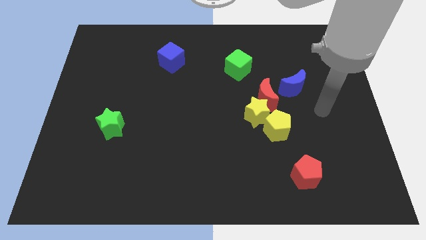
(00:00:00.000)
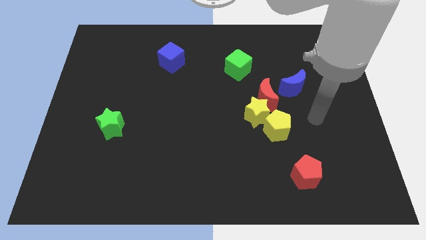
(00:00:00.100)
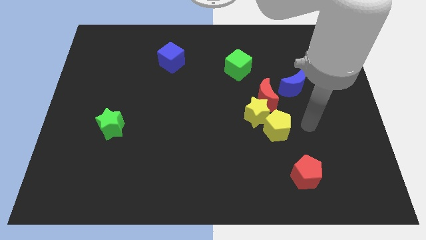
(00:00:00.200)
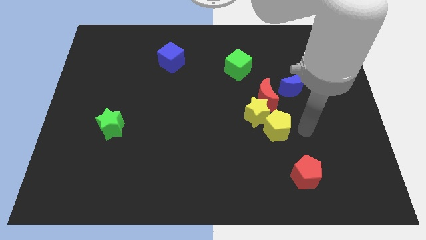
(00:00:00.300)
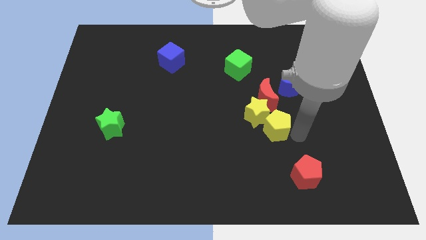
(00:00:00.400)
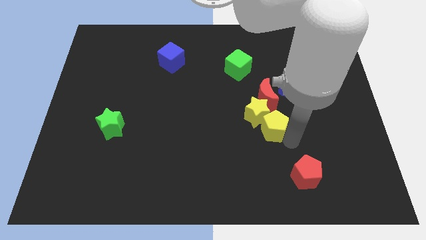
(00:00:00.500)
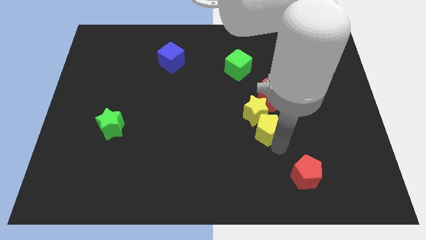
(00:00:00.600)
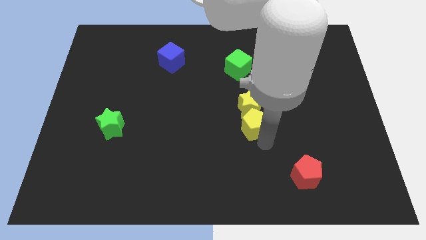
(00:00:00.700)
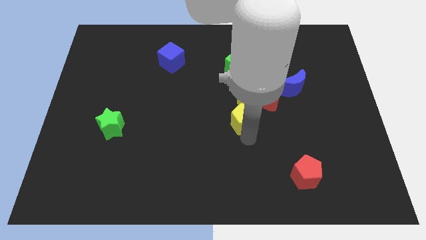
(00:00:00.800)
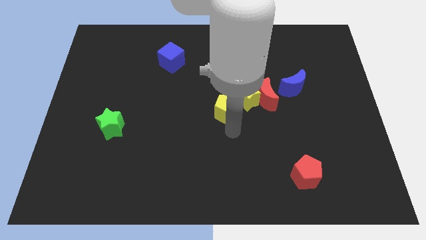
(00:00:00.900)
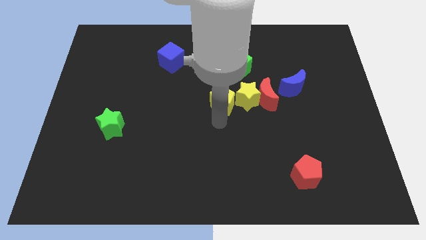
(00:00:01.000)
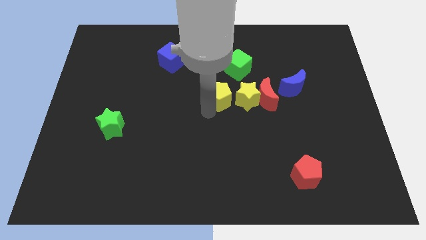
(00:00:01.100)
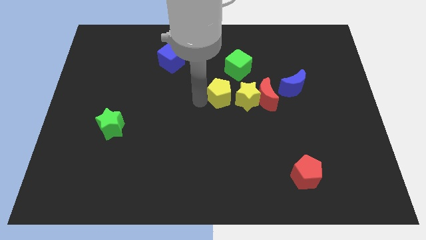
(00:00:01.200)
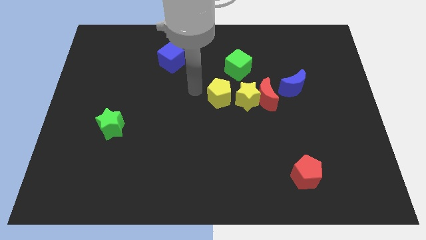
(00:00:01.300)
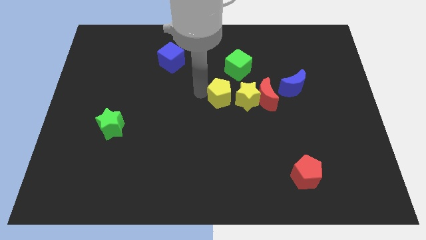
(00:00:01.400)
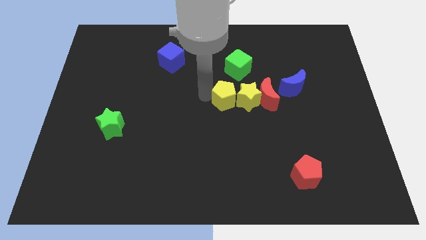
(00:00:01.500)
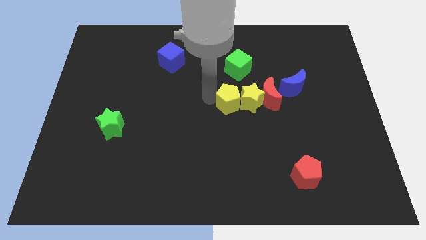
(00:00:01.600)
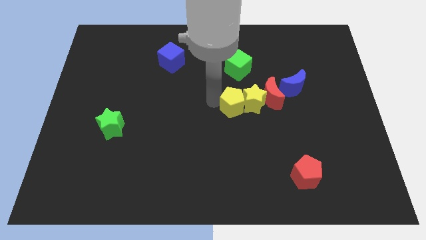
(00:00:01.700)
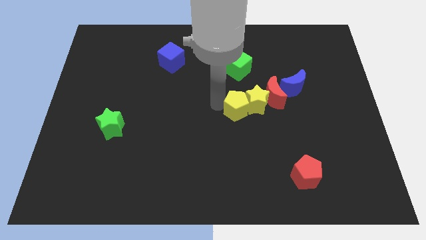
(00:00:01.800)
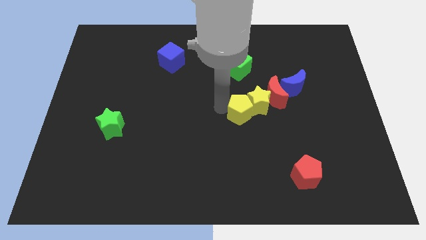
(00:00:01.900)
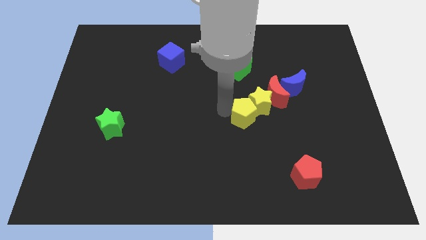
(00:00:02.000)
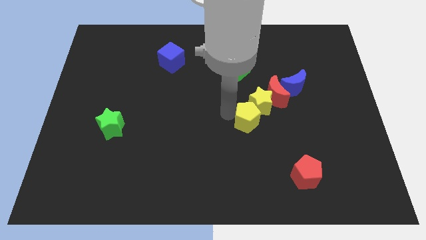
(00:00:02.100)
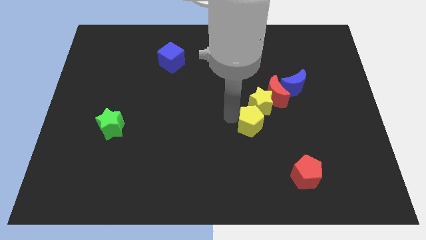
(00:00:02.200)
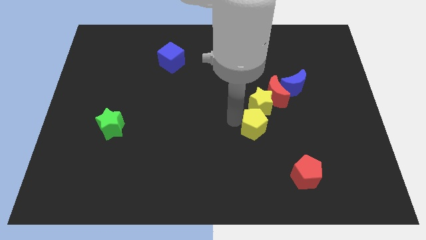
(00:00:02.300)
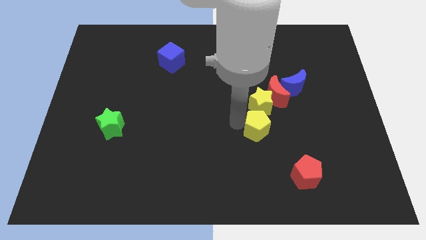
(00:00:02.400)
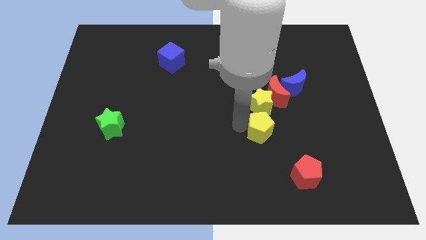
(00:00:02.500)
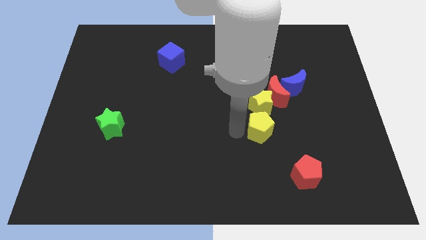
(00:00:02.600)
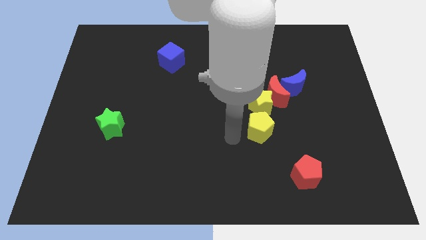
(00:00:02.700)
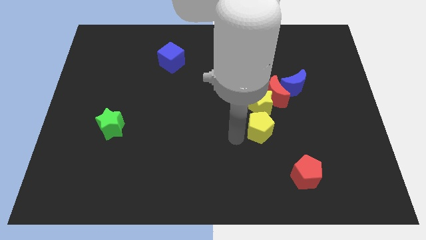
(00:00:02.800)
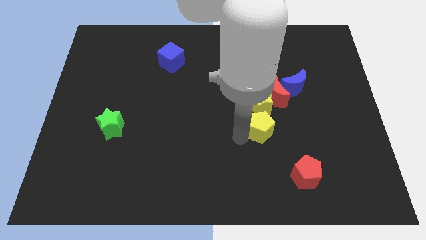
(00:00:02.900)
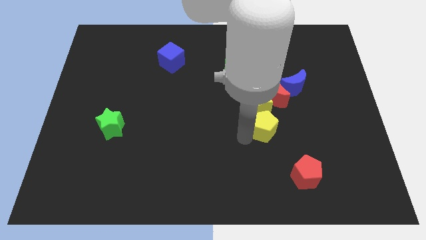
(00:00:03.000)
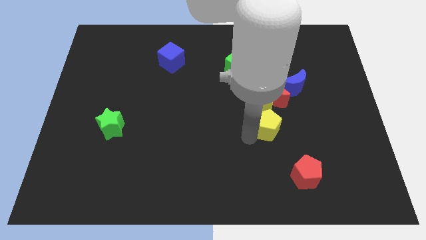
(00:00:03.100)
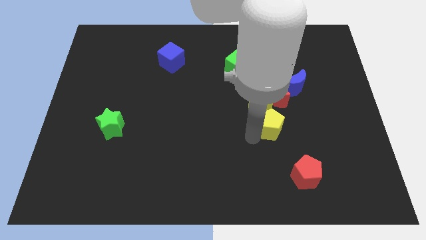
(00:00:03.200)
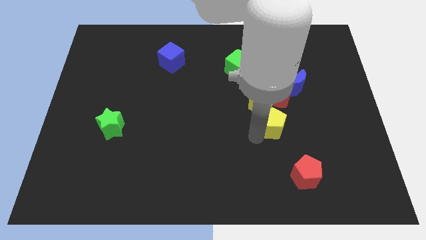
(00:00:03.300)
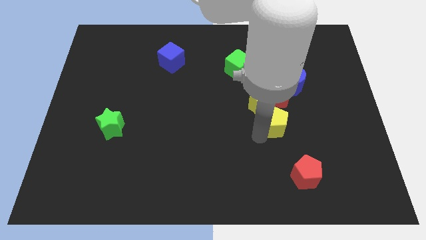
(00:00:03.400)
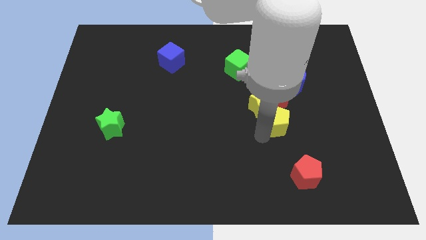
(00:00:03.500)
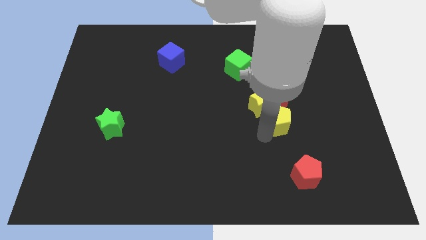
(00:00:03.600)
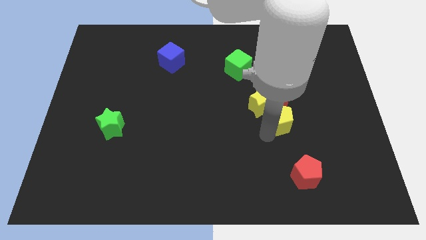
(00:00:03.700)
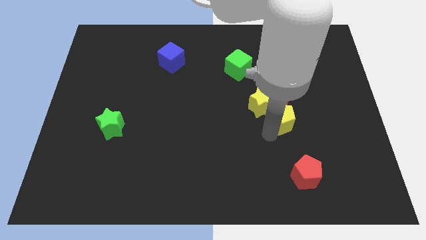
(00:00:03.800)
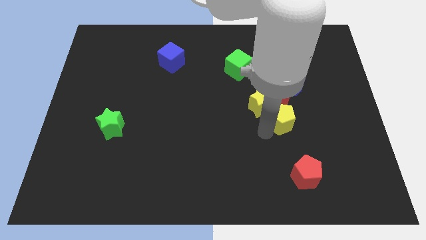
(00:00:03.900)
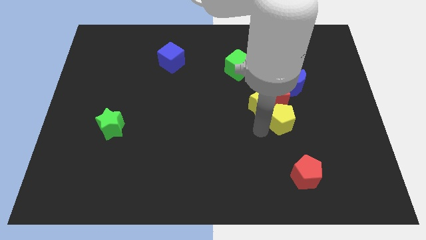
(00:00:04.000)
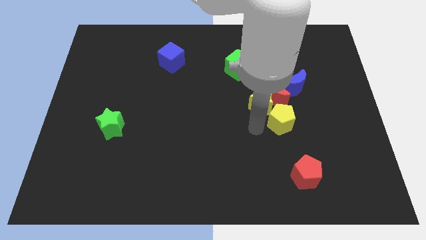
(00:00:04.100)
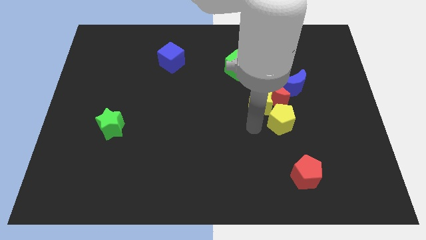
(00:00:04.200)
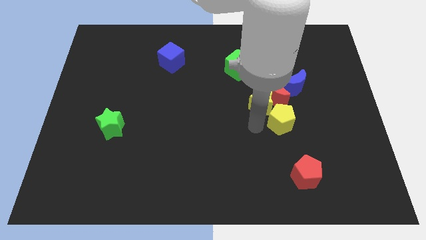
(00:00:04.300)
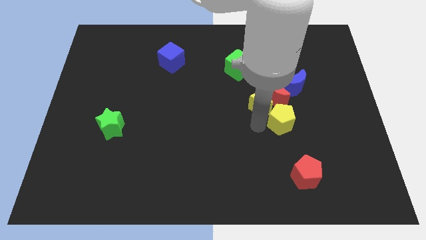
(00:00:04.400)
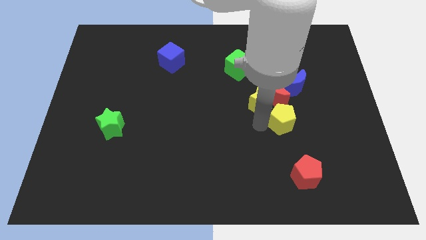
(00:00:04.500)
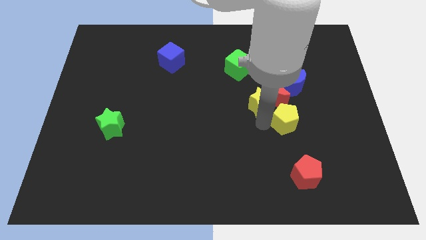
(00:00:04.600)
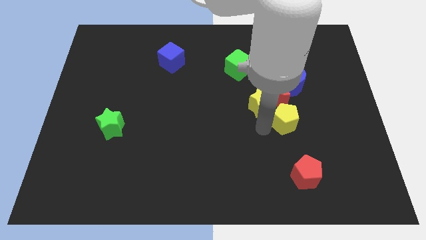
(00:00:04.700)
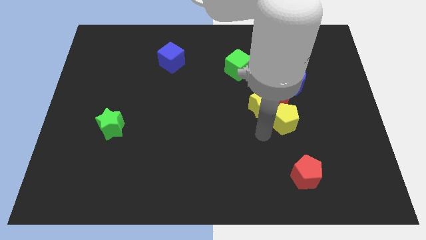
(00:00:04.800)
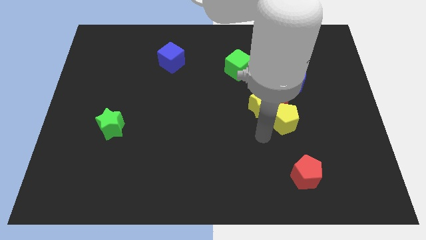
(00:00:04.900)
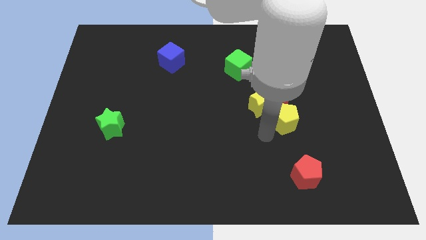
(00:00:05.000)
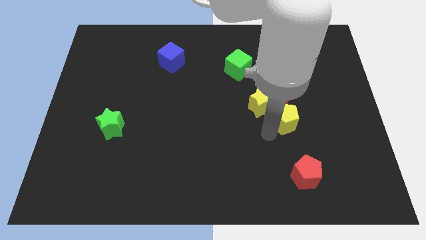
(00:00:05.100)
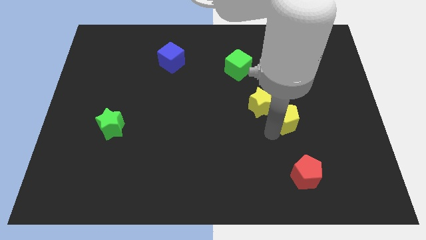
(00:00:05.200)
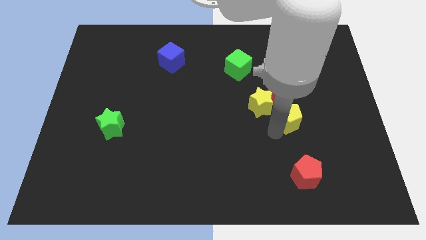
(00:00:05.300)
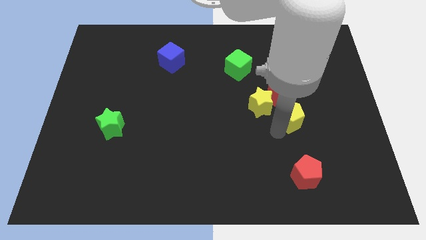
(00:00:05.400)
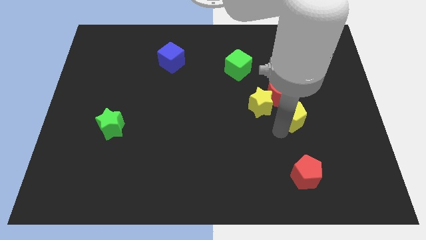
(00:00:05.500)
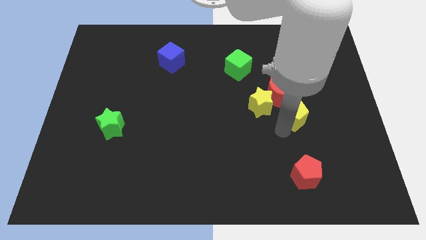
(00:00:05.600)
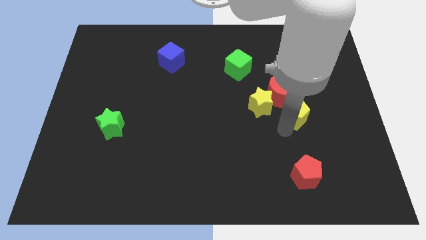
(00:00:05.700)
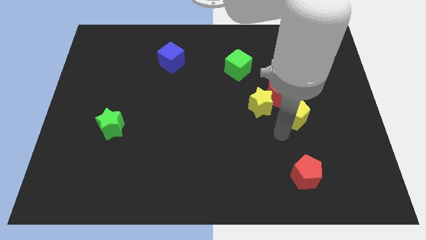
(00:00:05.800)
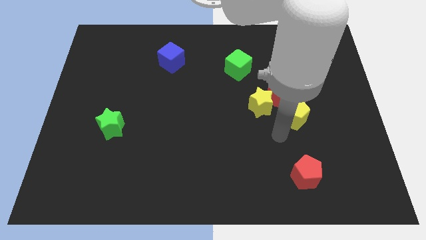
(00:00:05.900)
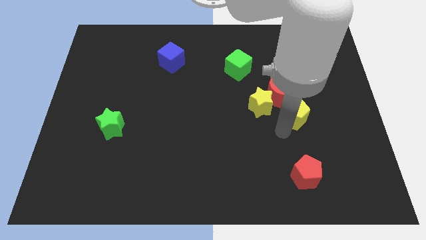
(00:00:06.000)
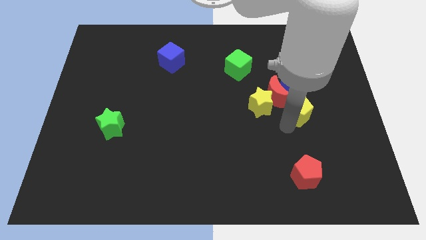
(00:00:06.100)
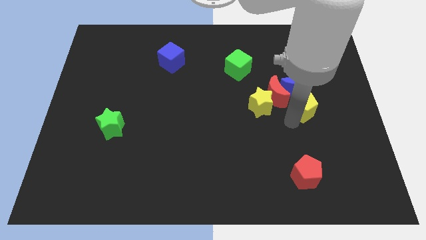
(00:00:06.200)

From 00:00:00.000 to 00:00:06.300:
move the yellow pentagon upwards and right somewhat

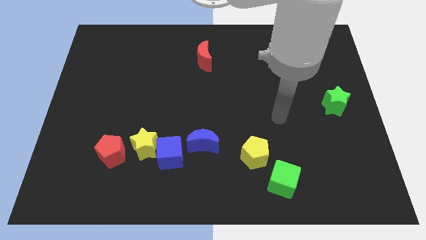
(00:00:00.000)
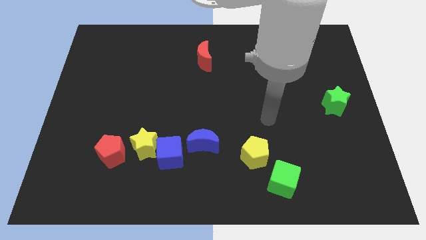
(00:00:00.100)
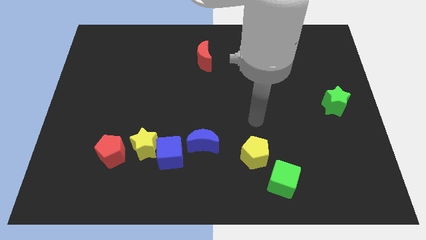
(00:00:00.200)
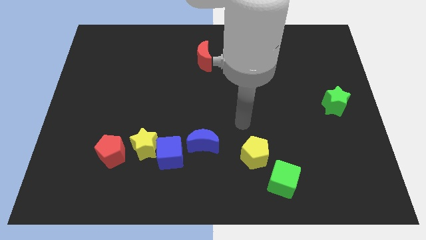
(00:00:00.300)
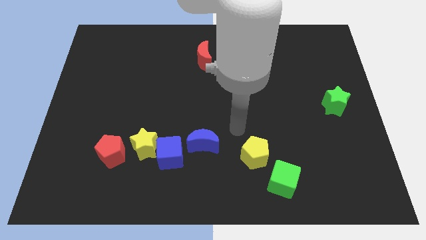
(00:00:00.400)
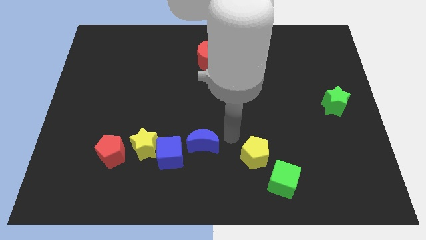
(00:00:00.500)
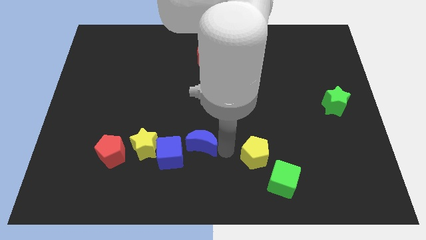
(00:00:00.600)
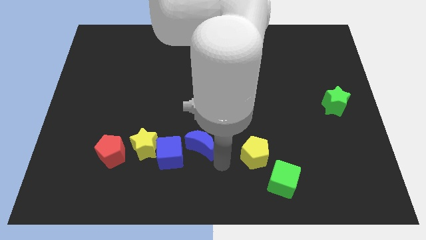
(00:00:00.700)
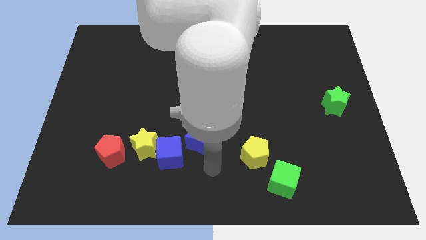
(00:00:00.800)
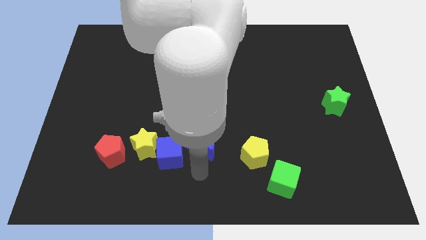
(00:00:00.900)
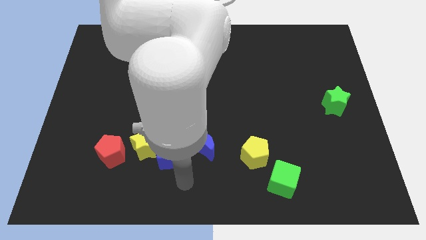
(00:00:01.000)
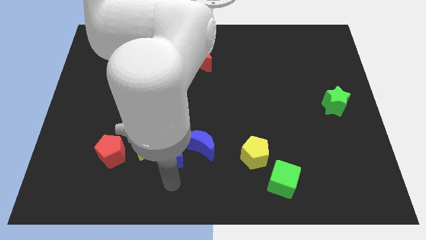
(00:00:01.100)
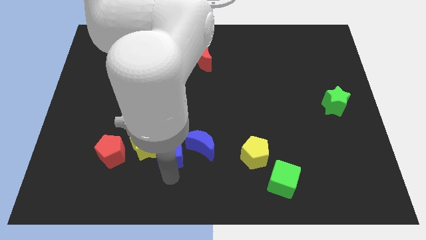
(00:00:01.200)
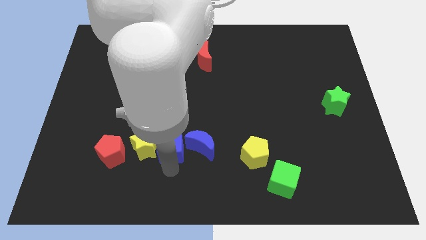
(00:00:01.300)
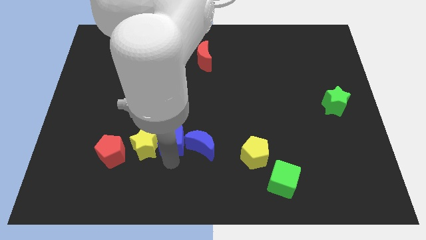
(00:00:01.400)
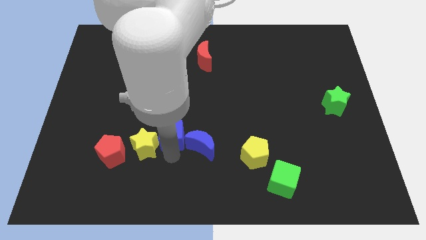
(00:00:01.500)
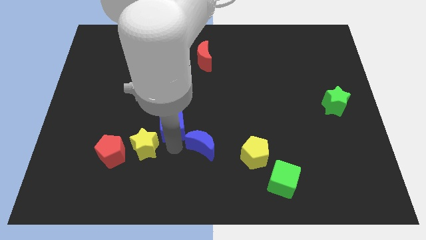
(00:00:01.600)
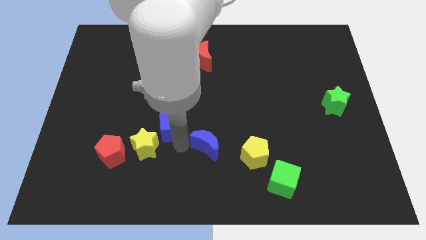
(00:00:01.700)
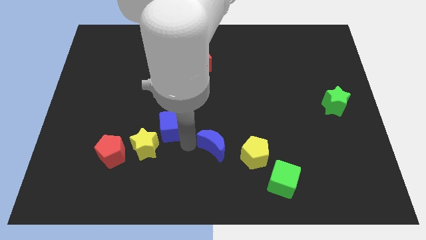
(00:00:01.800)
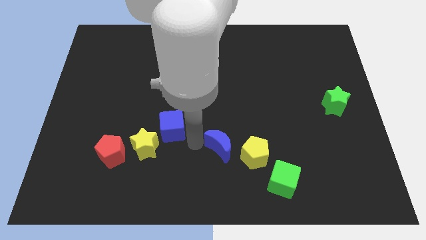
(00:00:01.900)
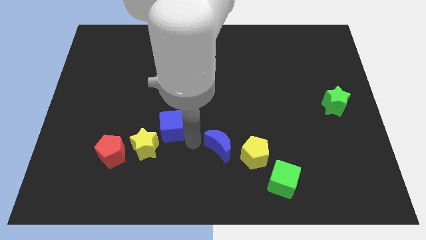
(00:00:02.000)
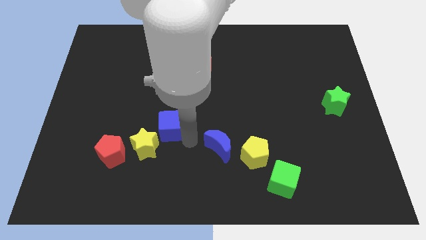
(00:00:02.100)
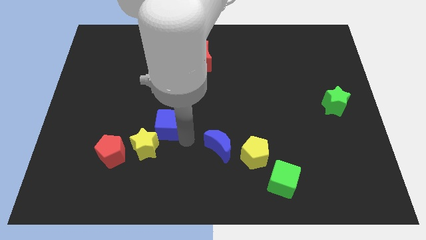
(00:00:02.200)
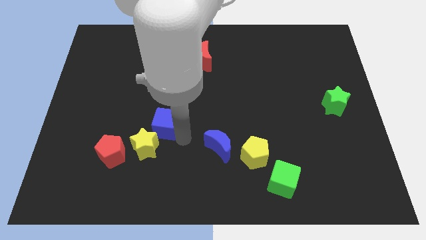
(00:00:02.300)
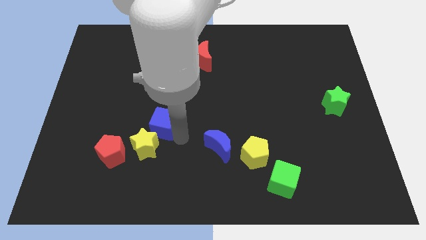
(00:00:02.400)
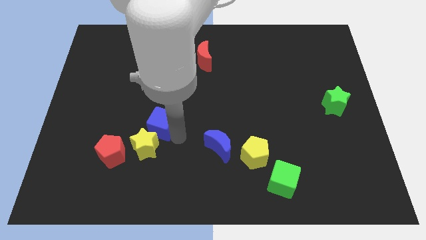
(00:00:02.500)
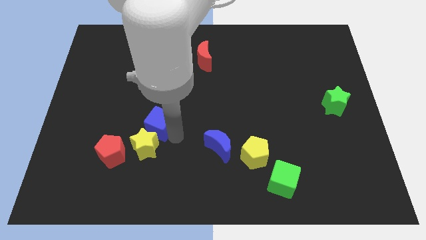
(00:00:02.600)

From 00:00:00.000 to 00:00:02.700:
push the blue cube upwards and left diagonally slightly
